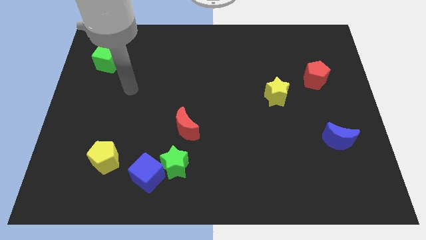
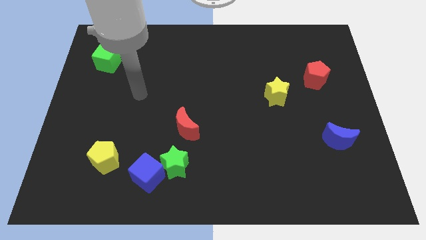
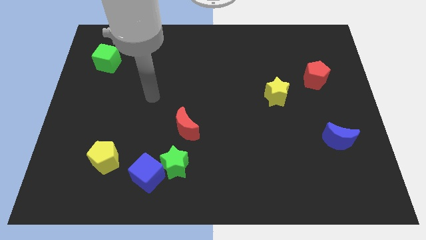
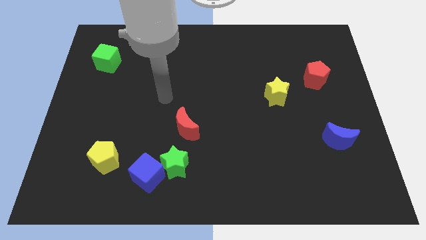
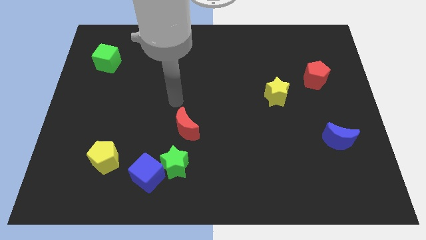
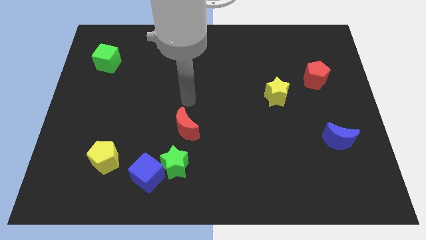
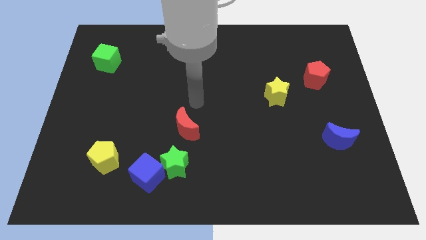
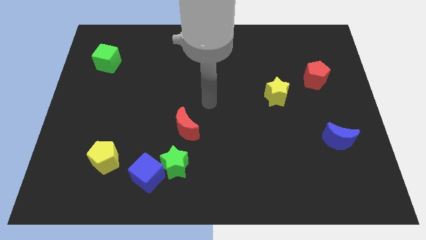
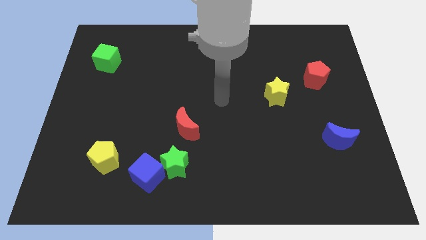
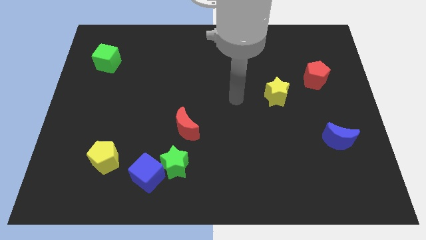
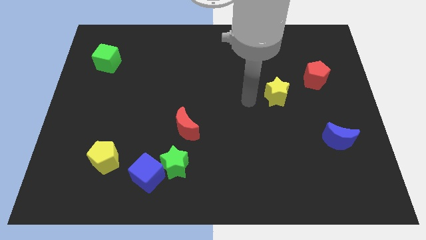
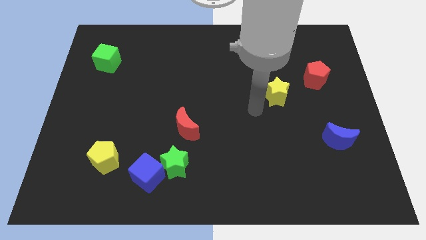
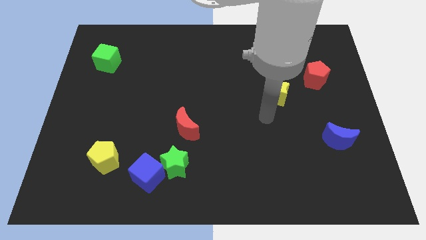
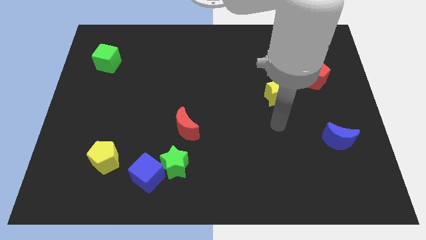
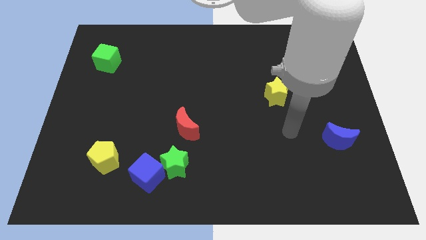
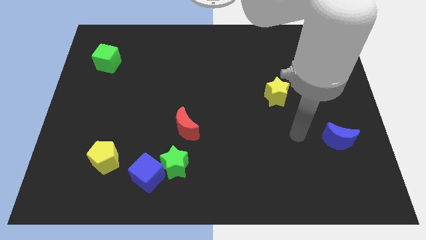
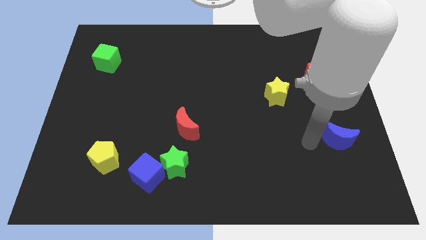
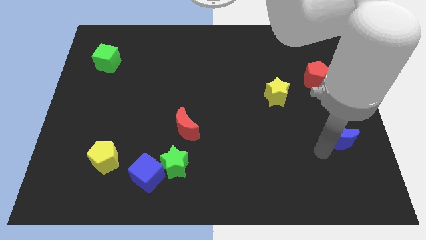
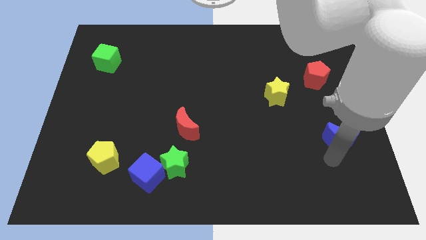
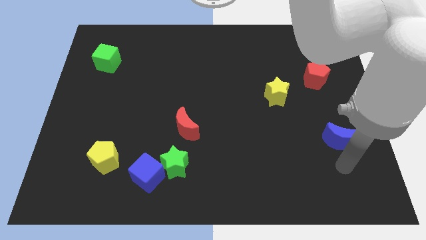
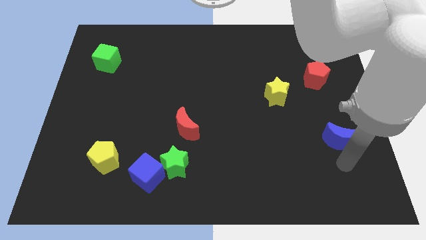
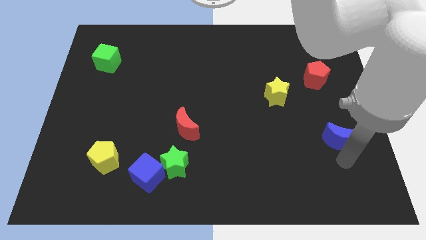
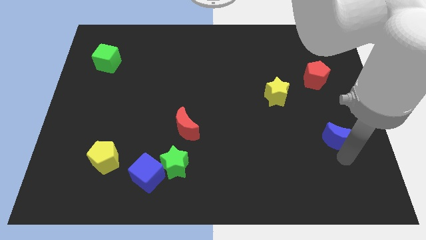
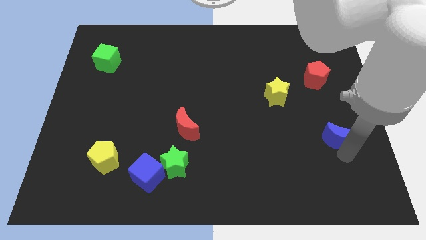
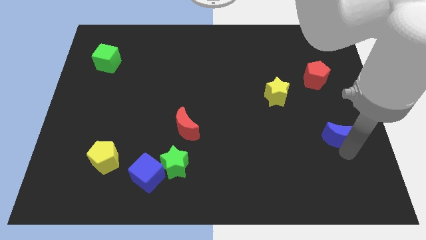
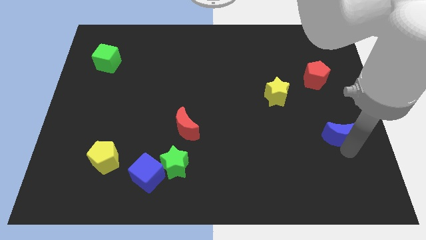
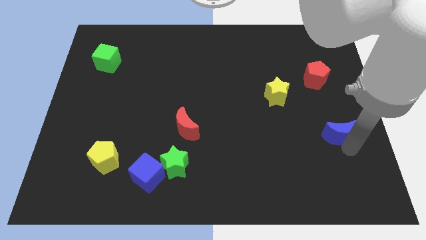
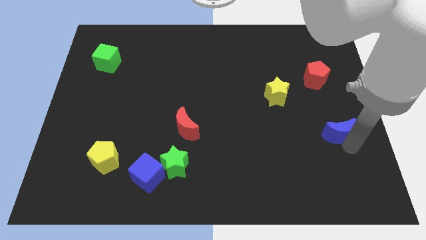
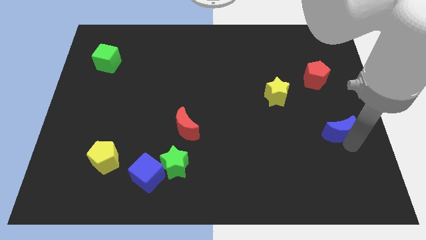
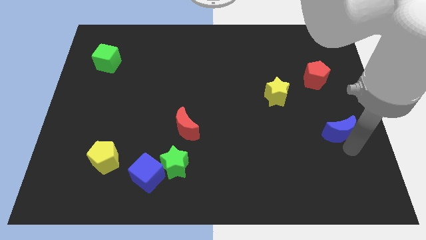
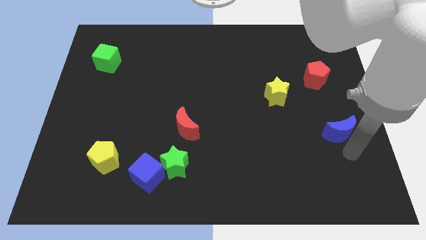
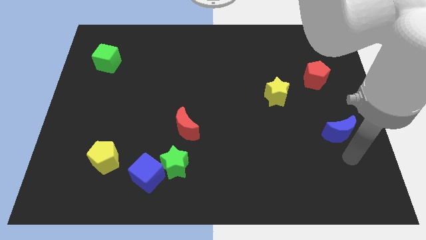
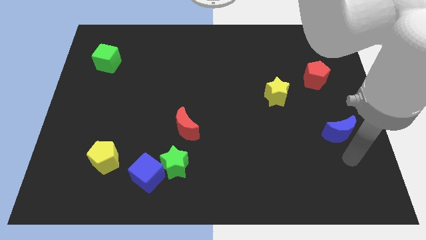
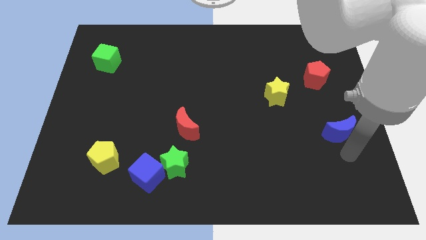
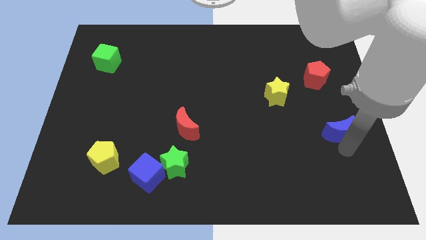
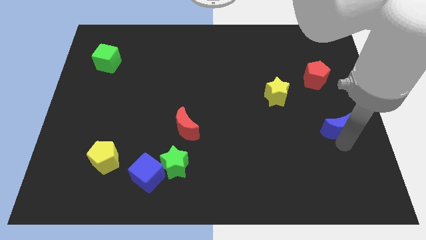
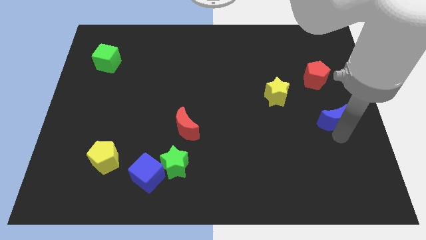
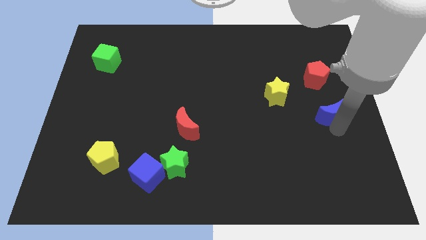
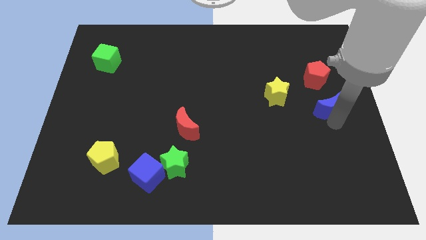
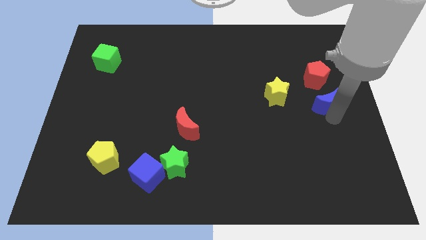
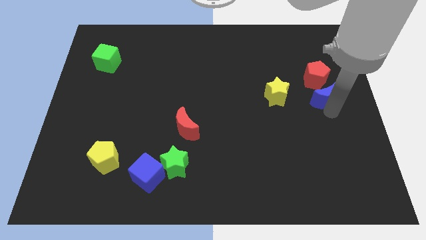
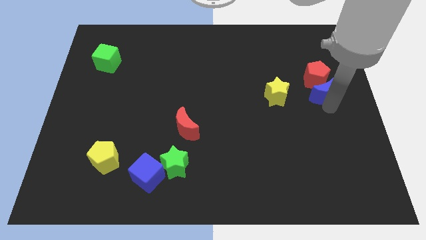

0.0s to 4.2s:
put the blue moon towards the red pentagon

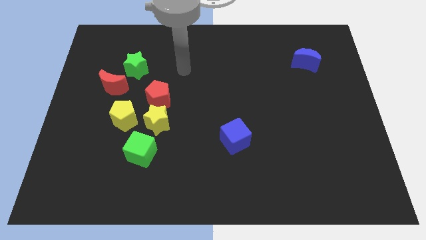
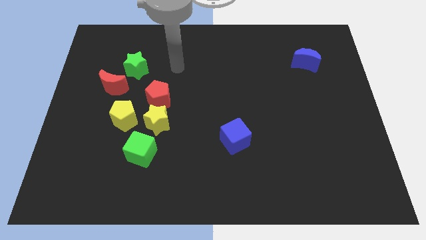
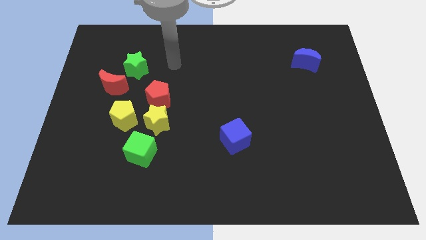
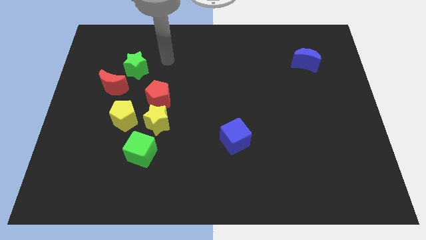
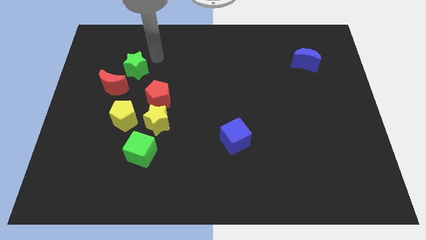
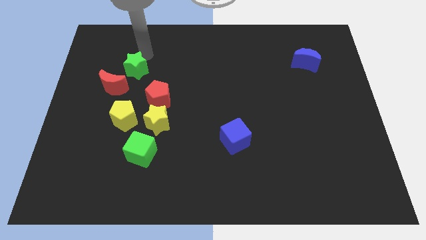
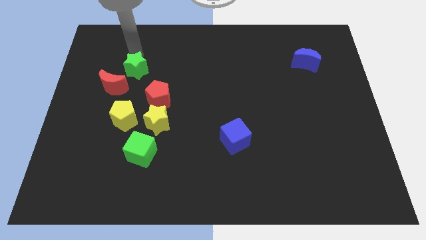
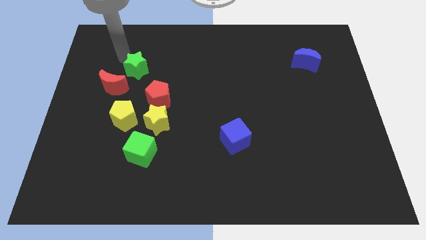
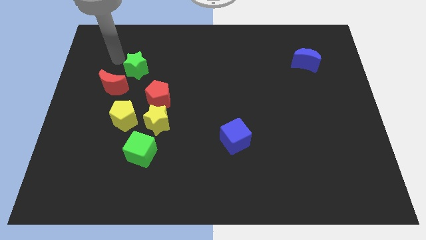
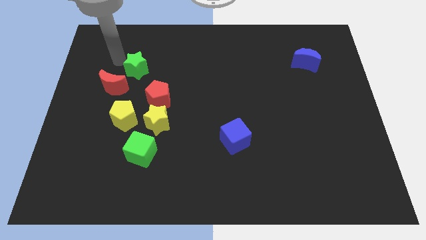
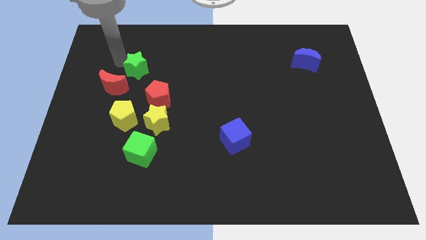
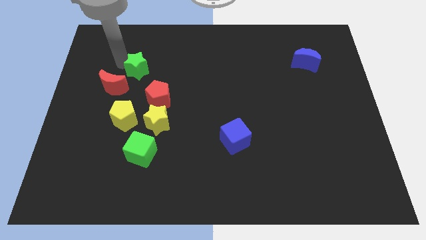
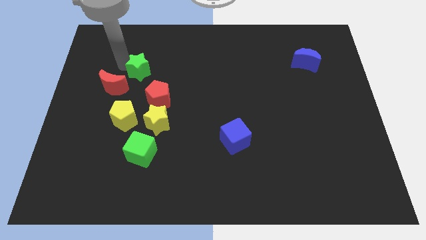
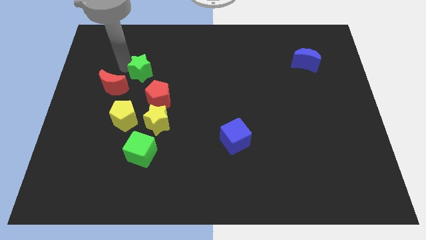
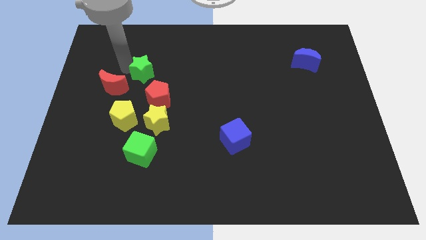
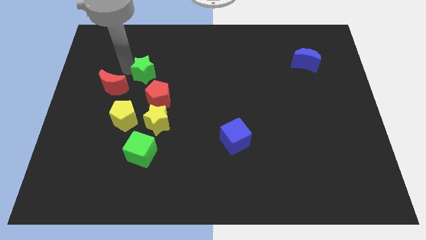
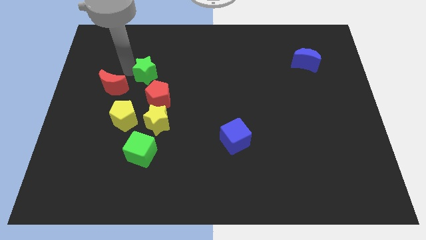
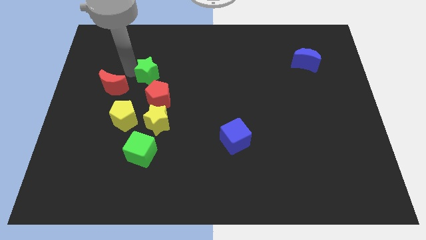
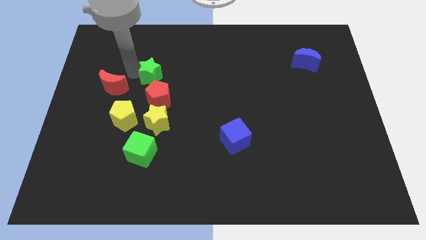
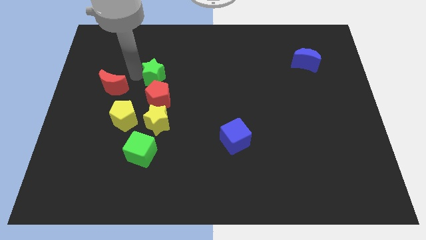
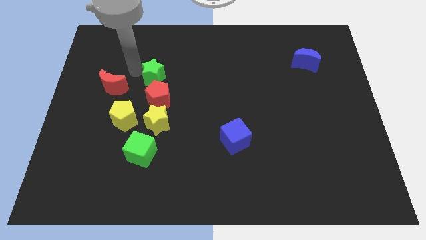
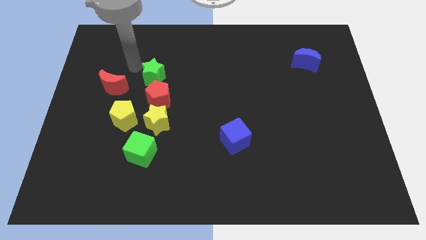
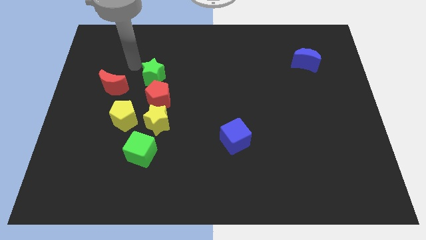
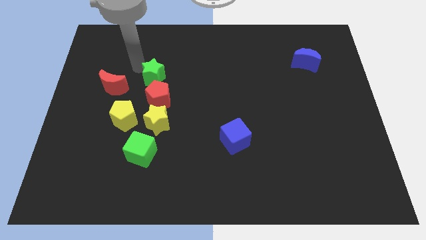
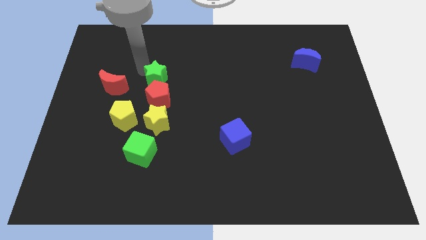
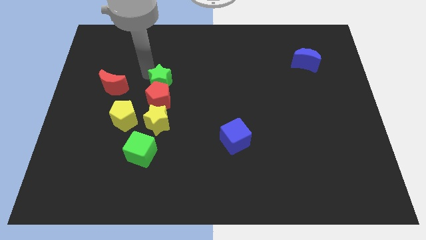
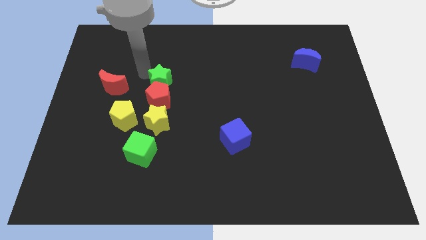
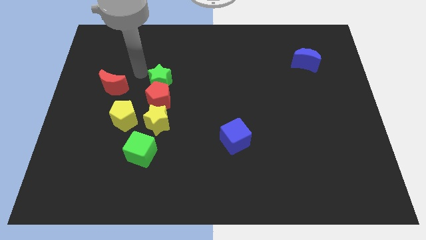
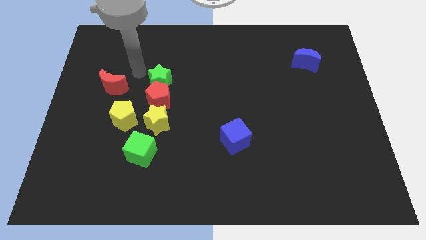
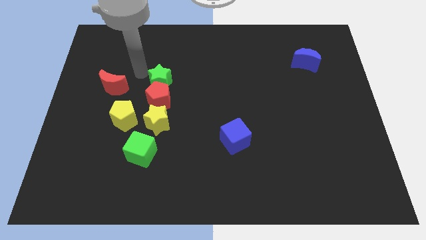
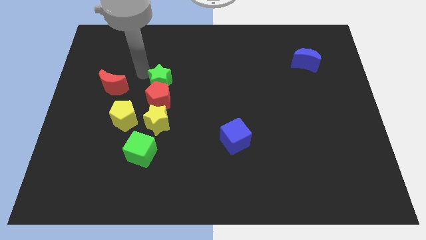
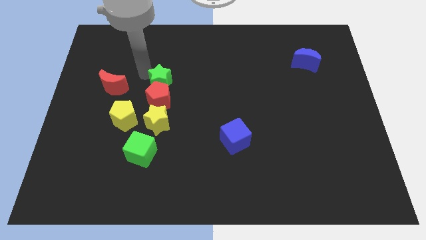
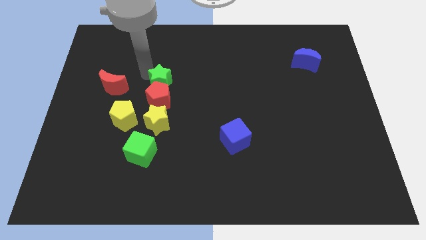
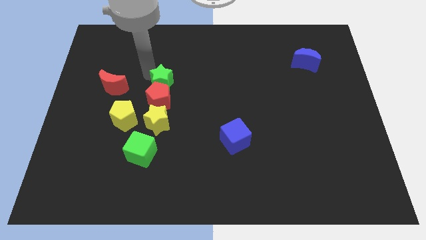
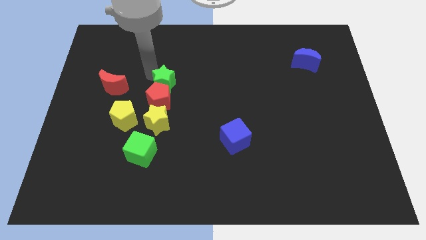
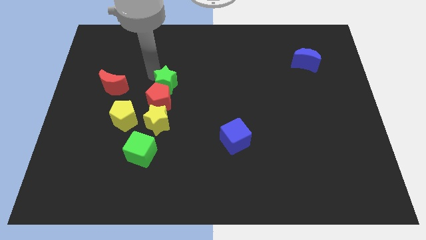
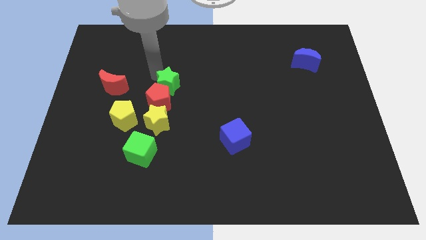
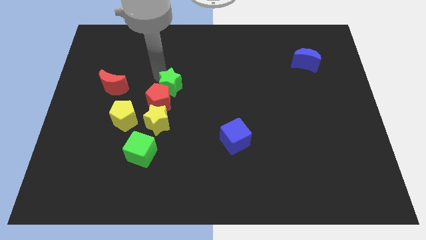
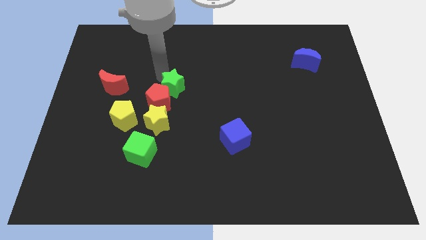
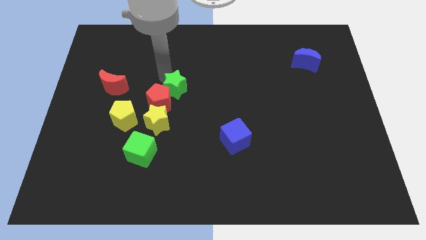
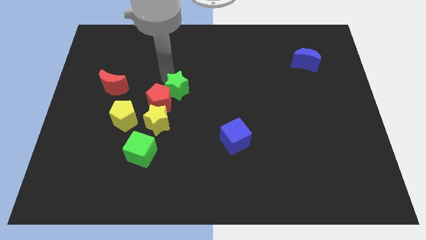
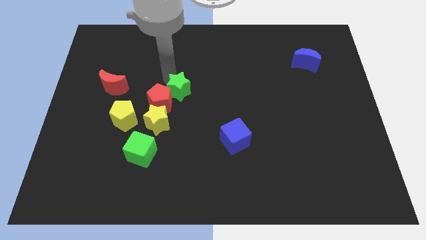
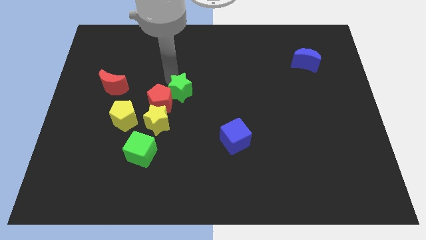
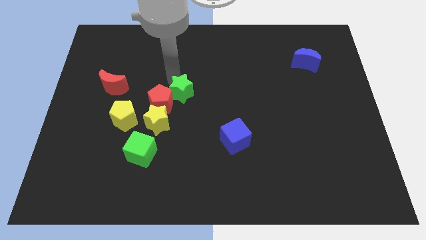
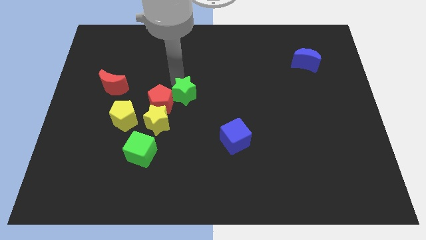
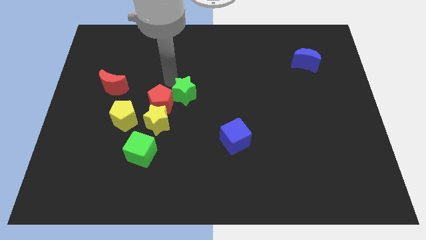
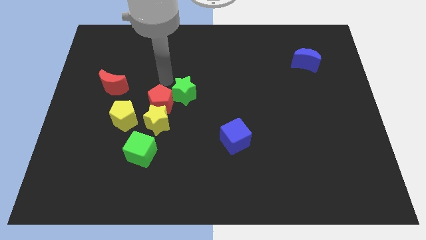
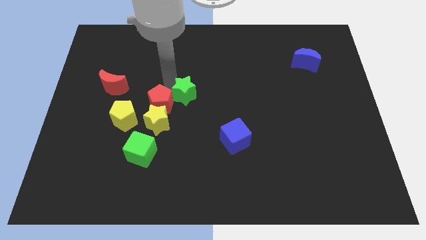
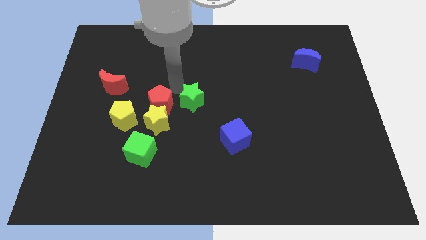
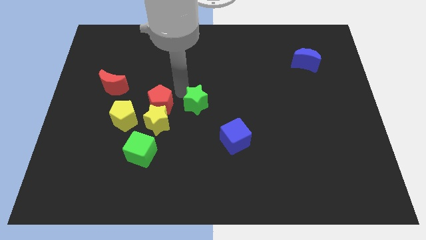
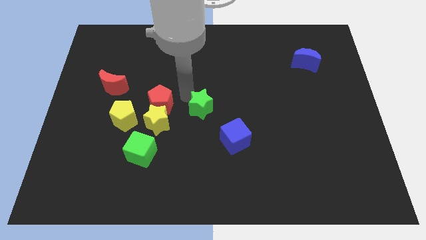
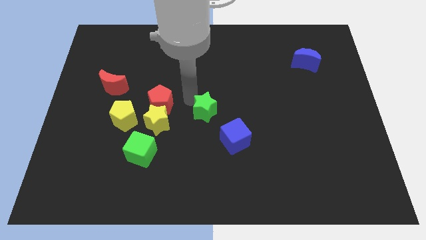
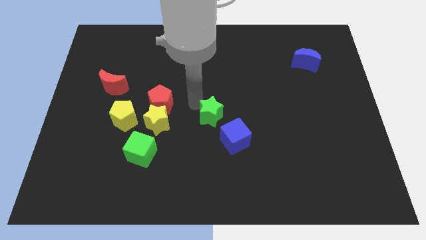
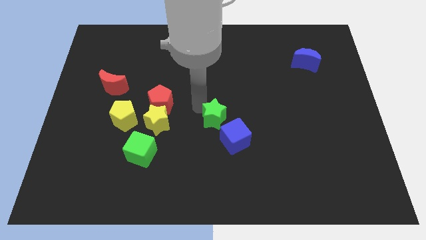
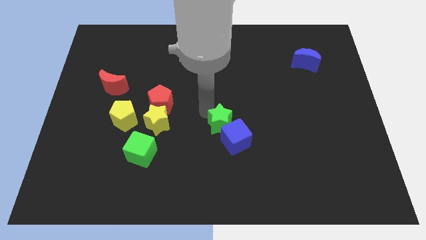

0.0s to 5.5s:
put the green star close to the blue cube
